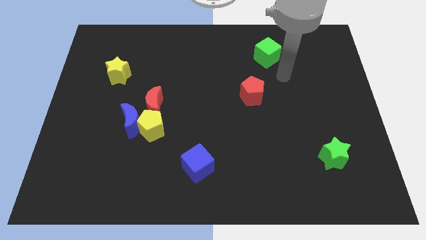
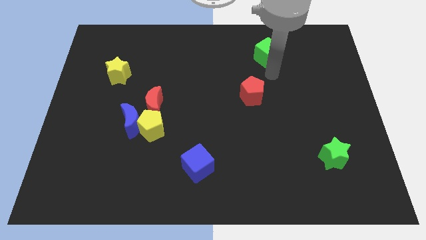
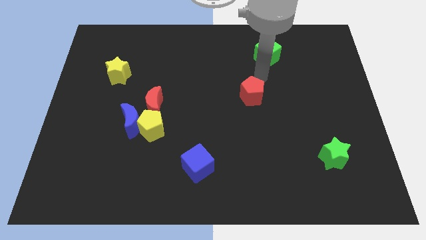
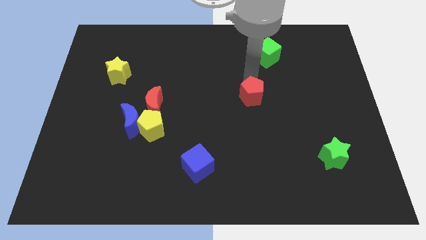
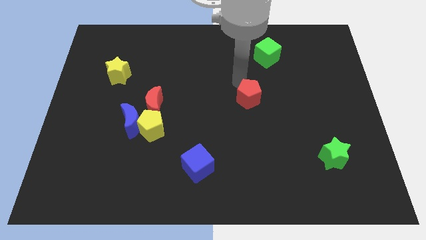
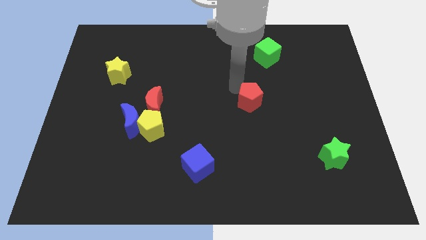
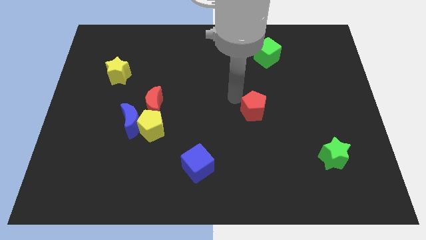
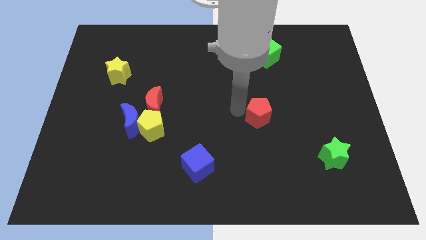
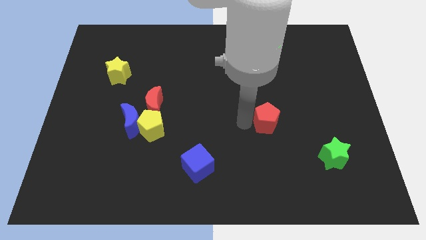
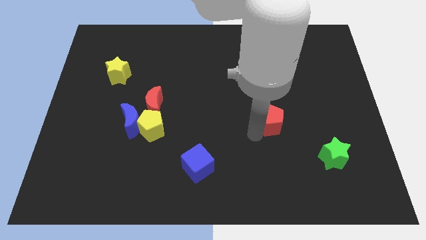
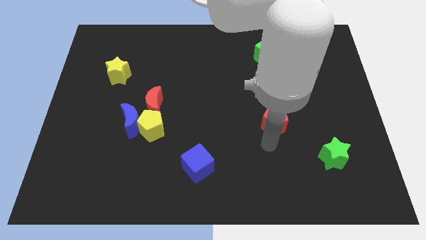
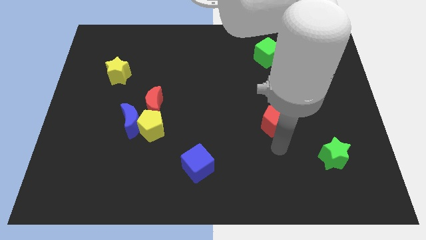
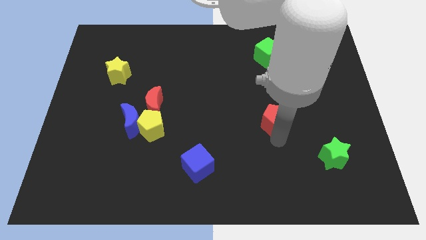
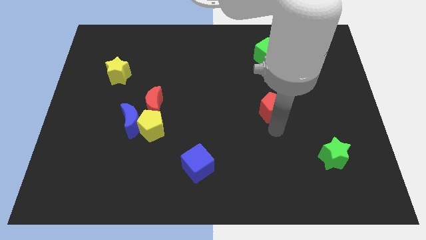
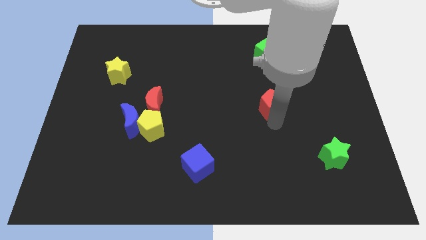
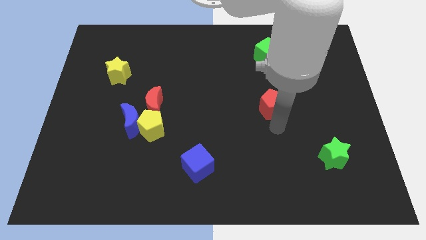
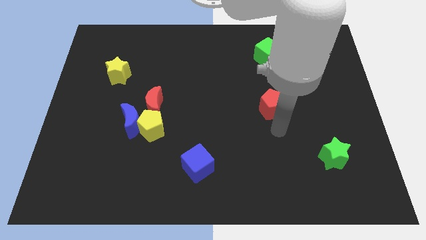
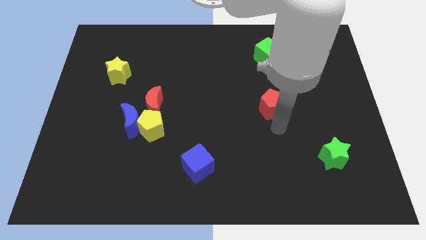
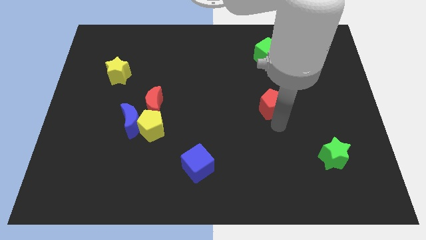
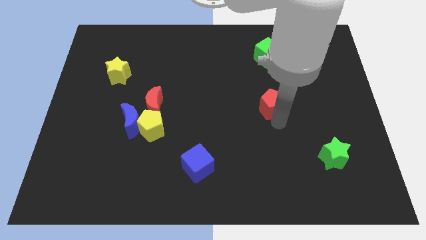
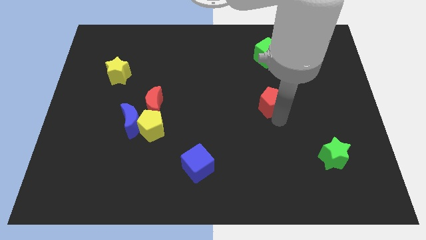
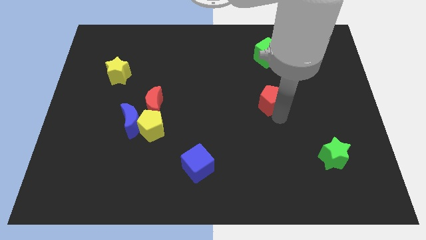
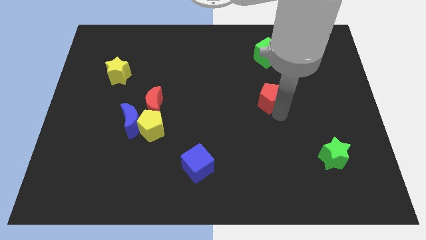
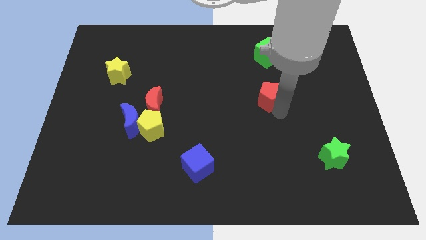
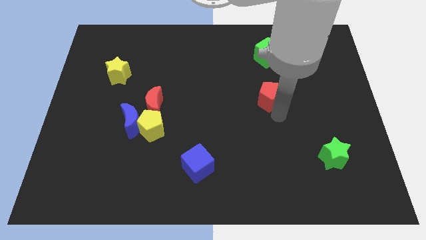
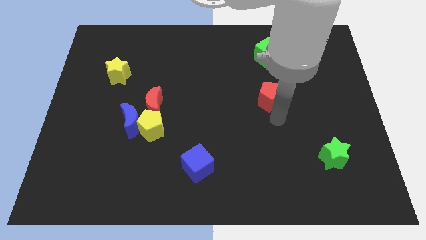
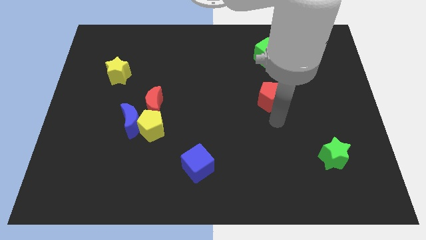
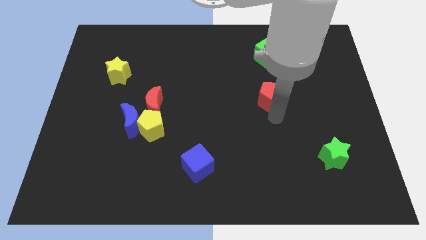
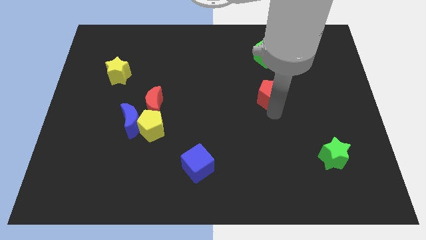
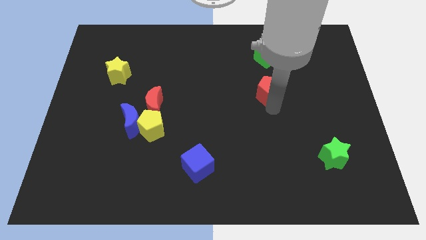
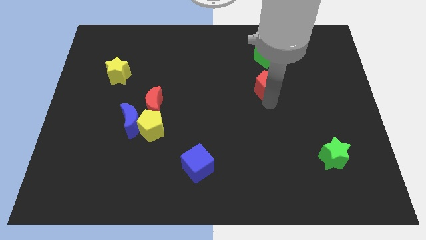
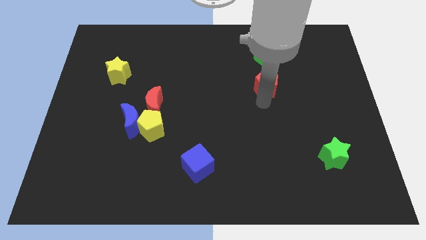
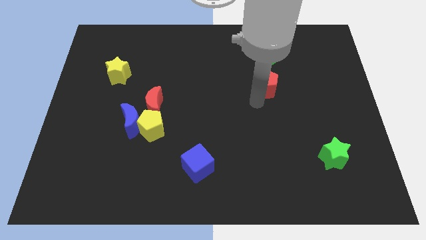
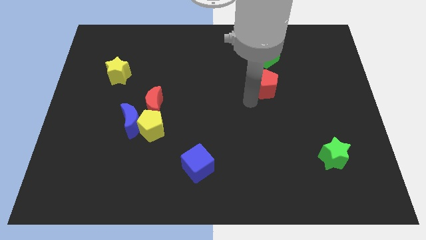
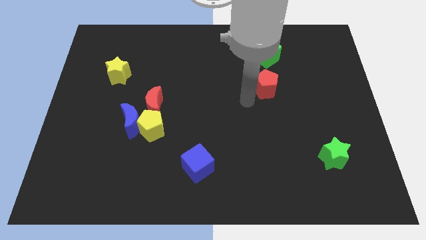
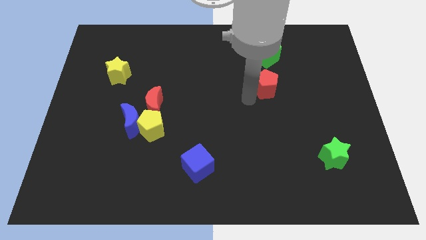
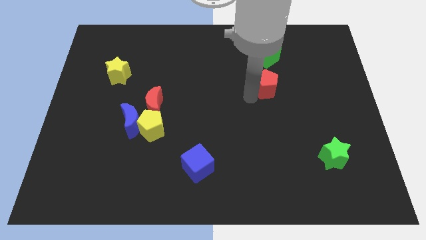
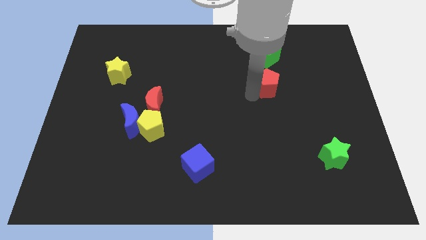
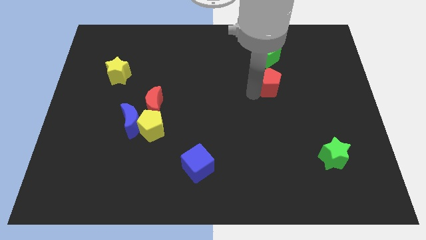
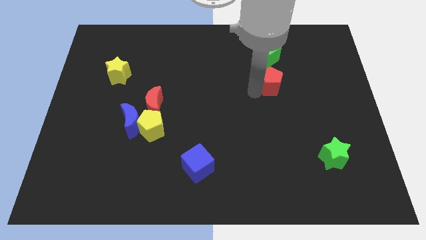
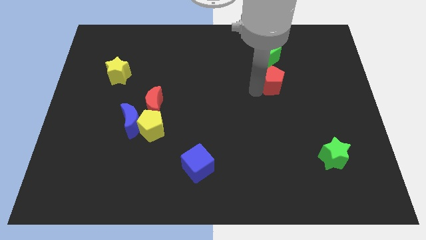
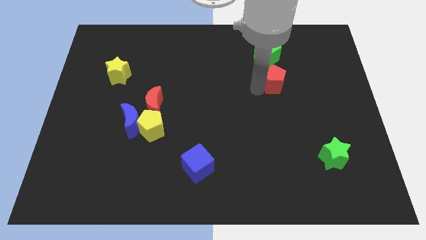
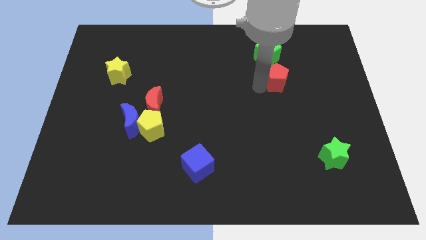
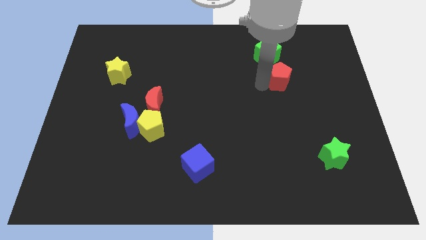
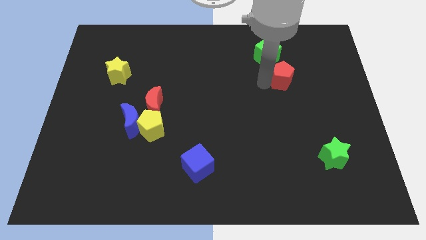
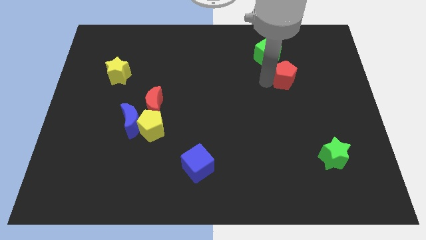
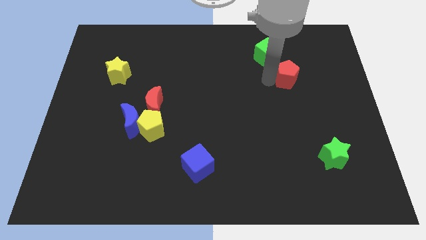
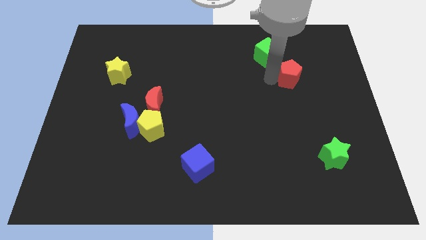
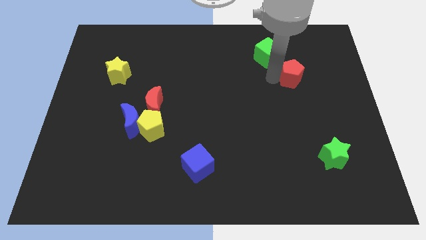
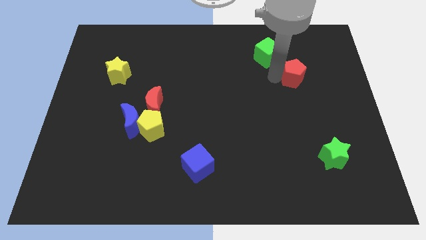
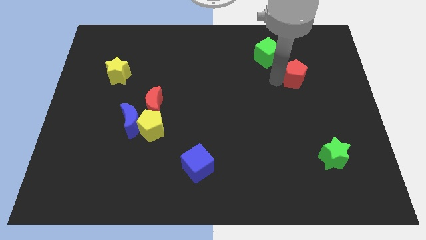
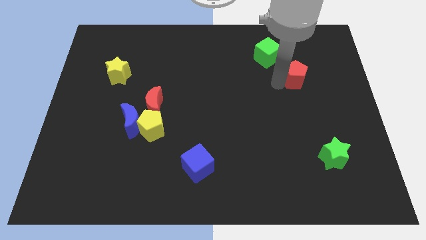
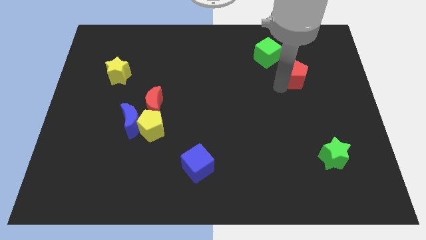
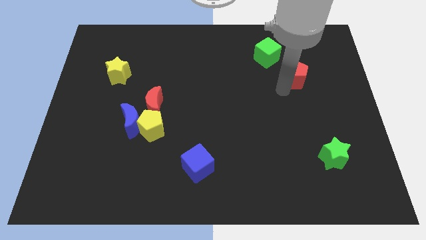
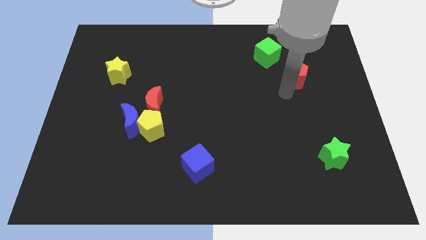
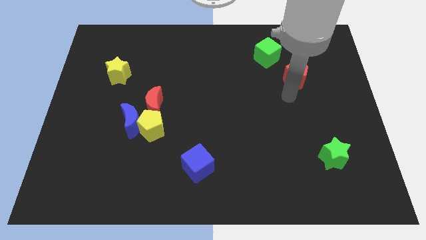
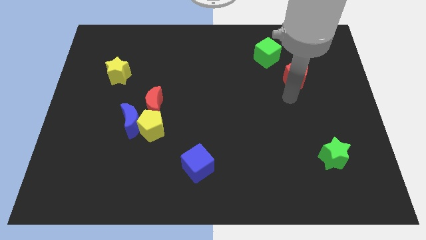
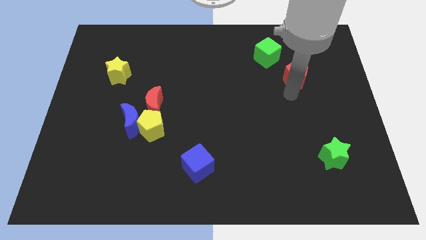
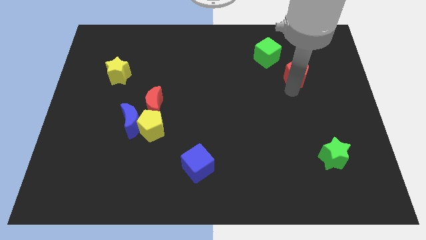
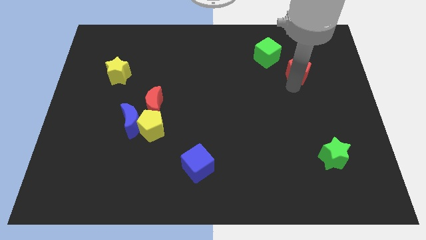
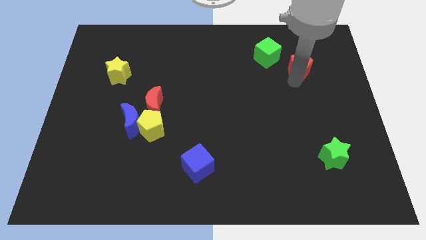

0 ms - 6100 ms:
put the red pentagon to the right of the green cube

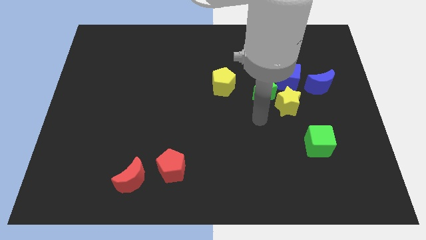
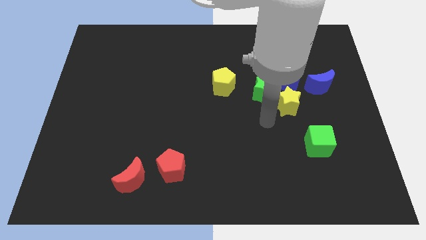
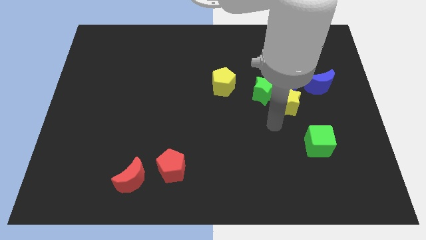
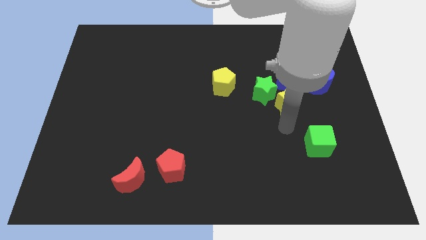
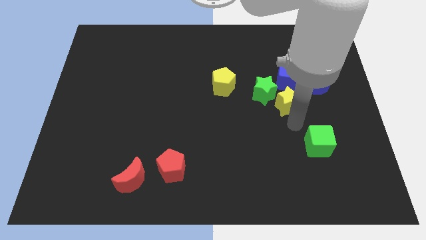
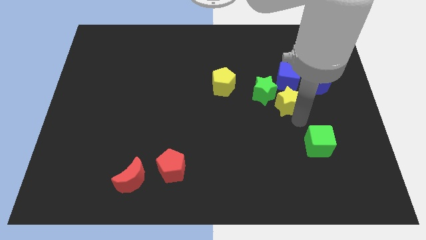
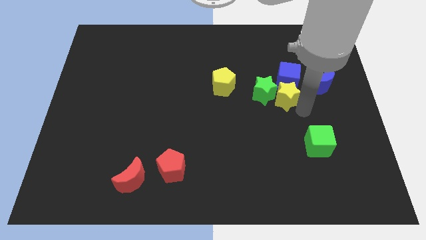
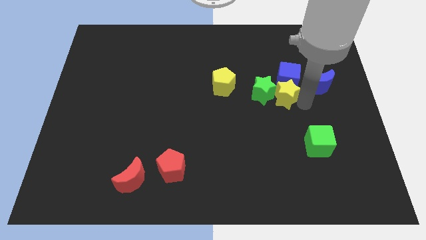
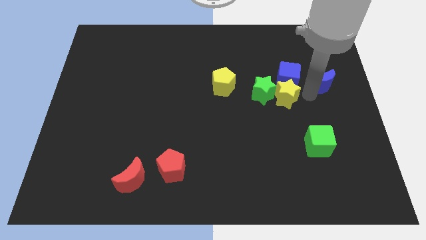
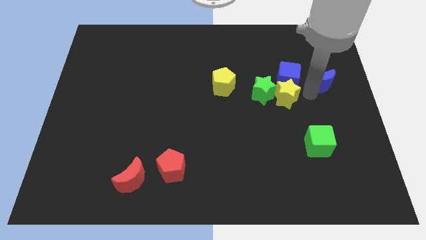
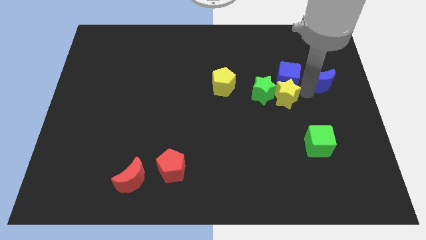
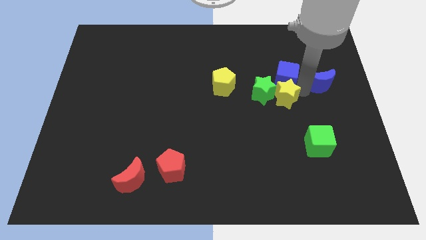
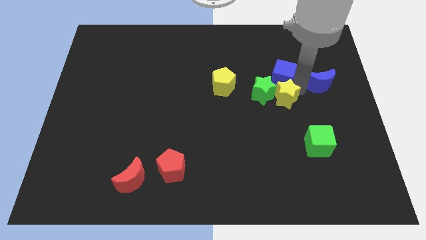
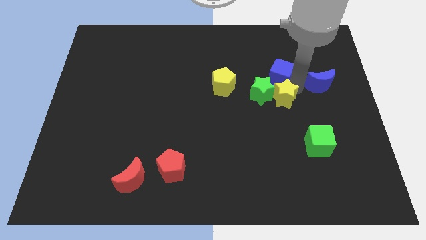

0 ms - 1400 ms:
put the blue cube above the green star
